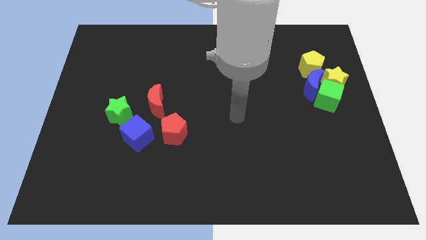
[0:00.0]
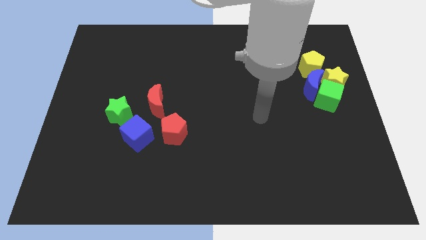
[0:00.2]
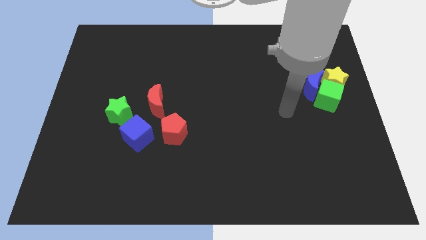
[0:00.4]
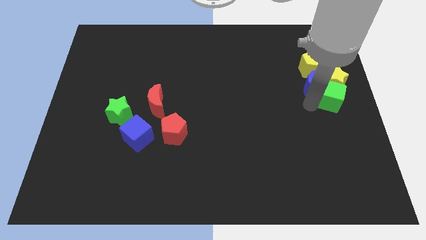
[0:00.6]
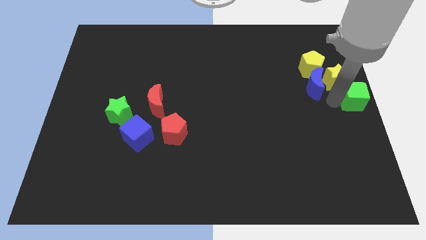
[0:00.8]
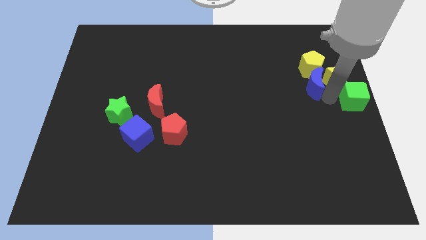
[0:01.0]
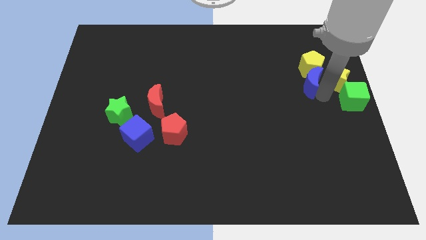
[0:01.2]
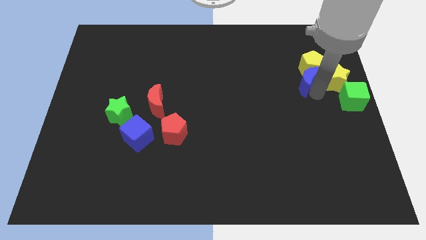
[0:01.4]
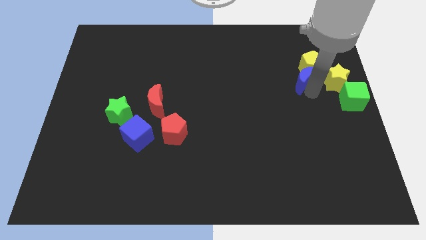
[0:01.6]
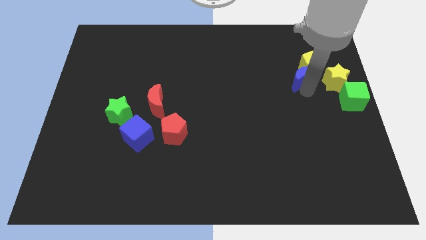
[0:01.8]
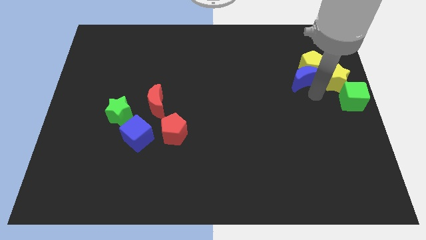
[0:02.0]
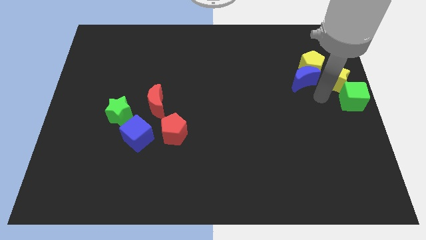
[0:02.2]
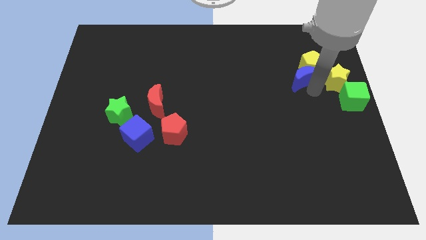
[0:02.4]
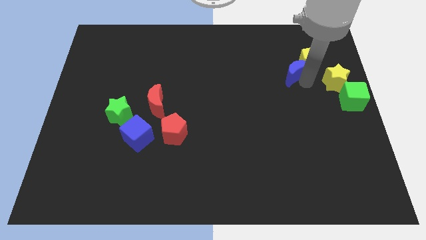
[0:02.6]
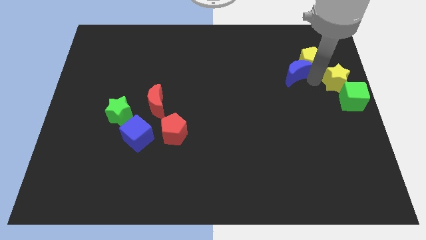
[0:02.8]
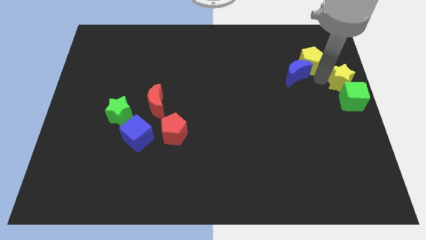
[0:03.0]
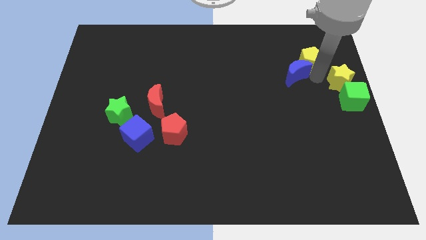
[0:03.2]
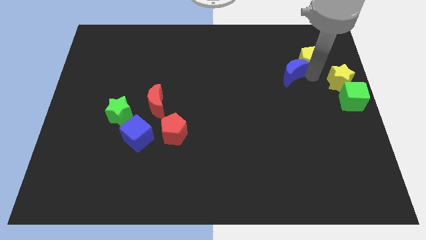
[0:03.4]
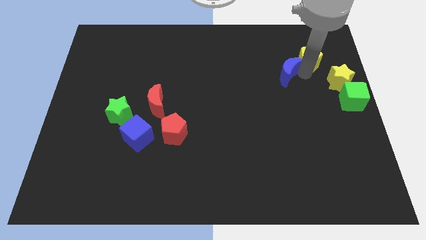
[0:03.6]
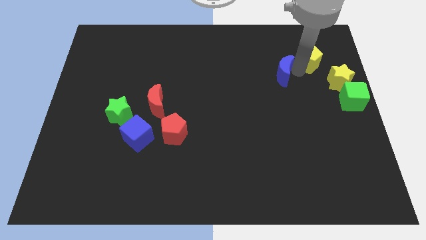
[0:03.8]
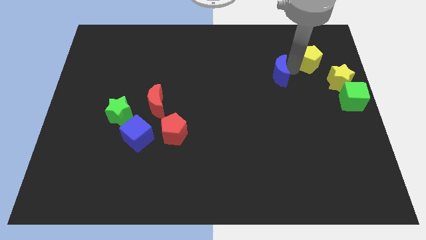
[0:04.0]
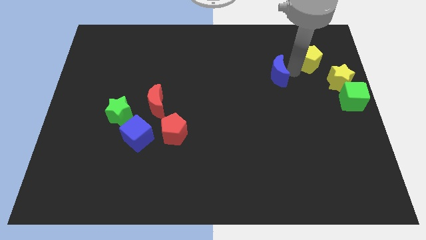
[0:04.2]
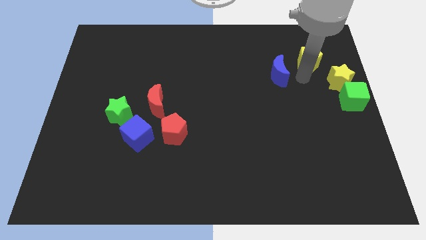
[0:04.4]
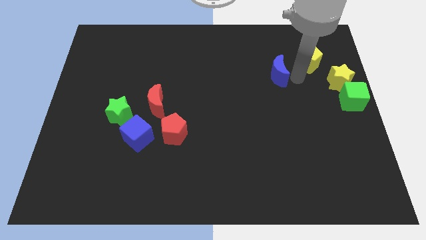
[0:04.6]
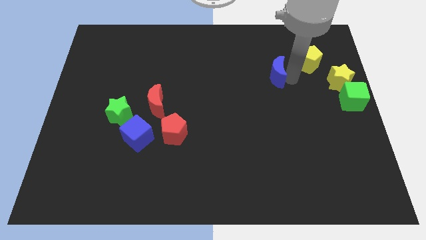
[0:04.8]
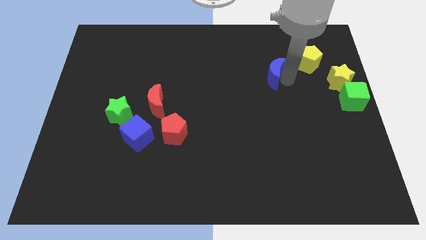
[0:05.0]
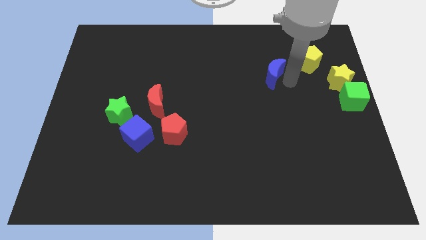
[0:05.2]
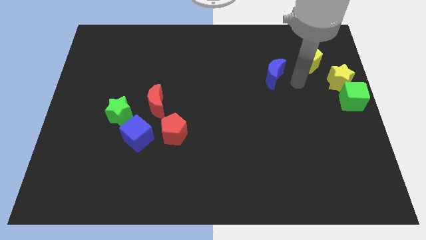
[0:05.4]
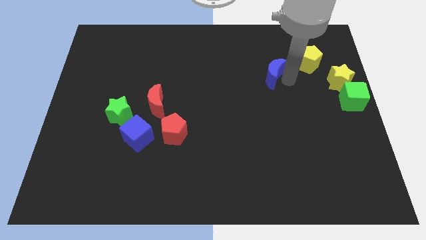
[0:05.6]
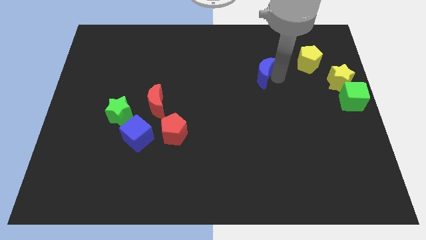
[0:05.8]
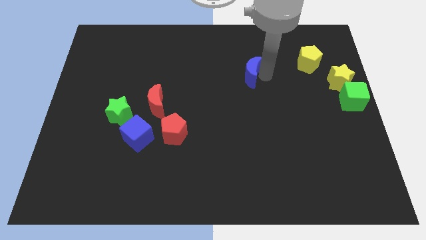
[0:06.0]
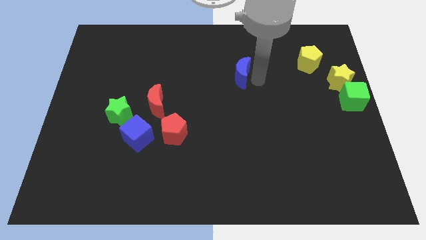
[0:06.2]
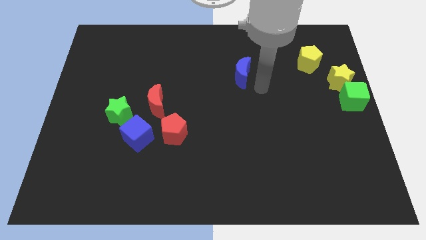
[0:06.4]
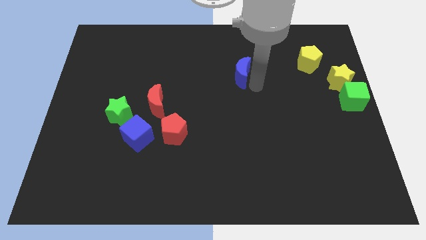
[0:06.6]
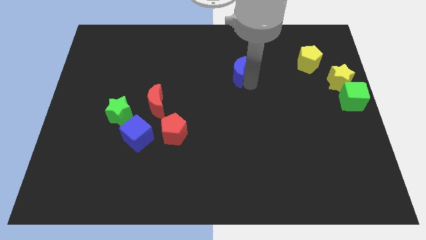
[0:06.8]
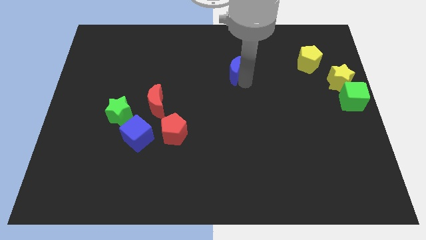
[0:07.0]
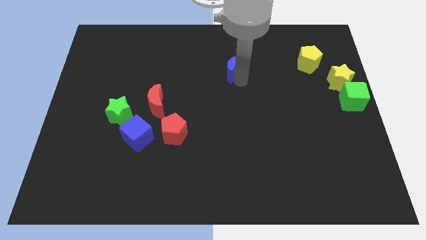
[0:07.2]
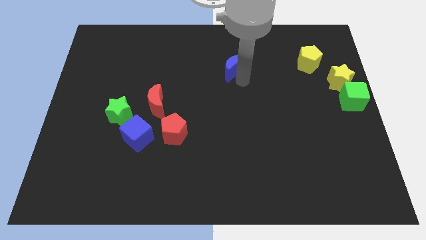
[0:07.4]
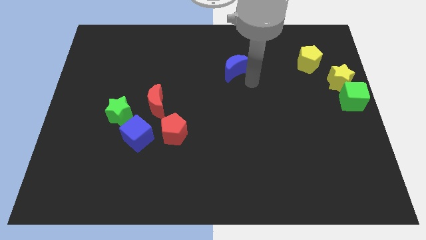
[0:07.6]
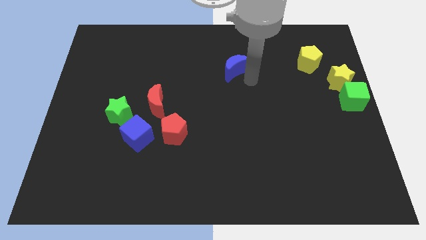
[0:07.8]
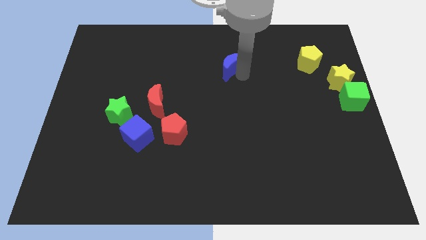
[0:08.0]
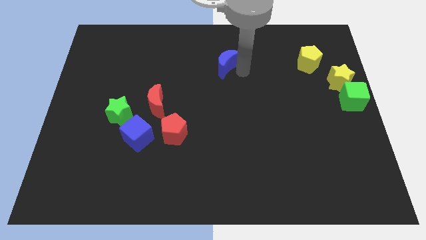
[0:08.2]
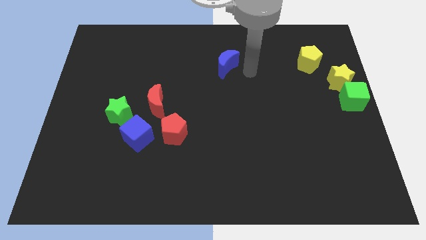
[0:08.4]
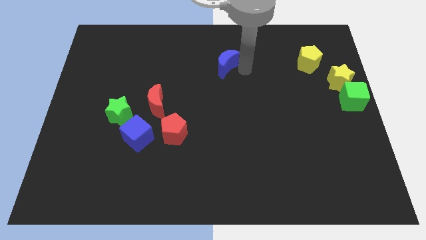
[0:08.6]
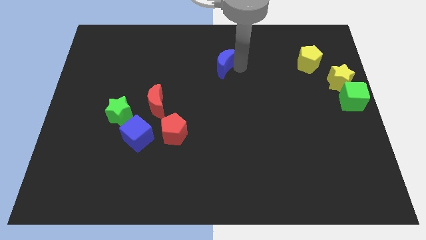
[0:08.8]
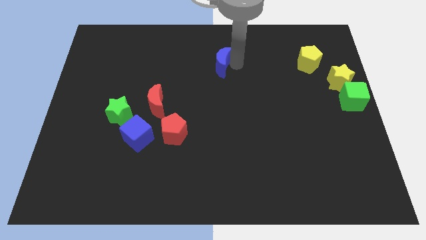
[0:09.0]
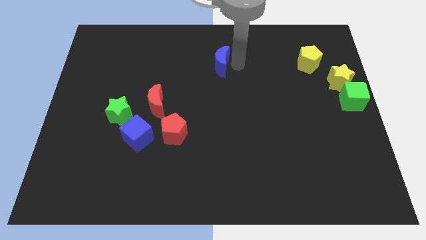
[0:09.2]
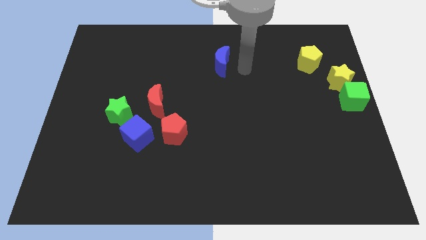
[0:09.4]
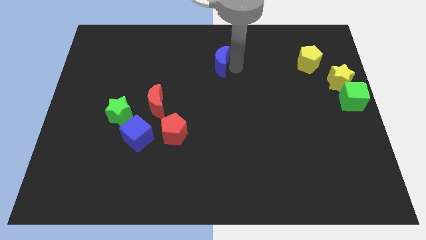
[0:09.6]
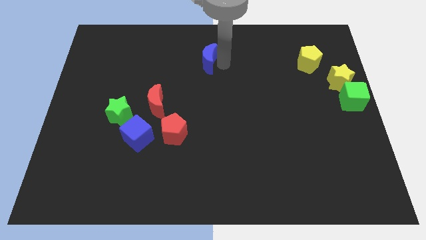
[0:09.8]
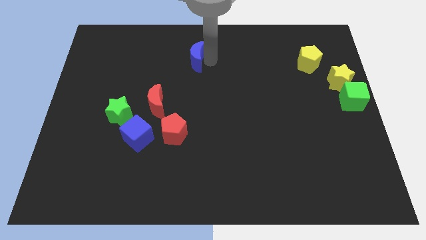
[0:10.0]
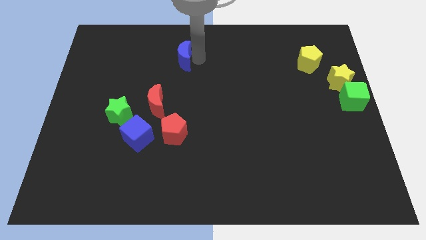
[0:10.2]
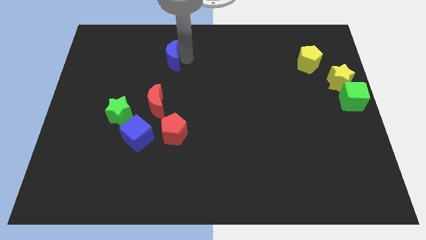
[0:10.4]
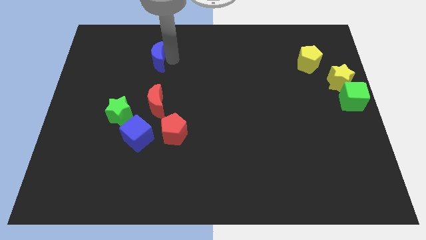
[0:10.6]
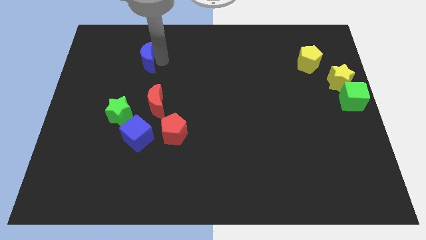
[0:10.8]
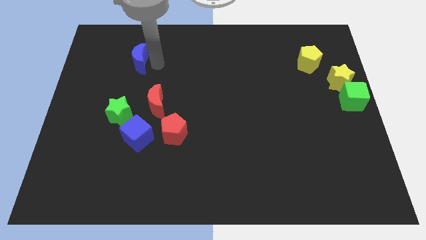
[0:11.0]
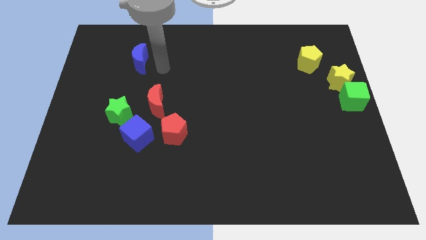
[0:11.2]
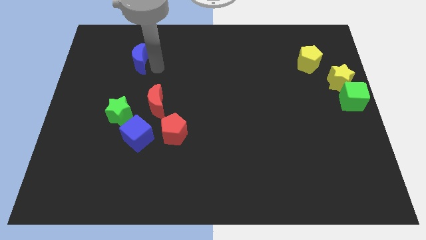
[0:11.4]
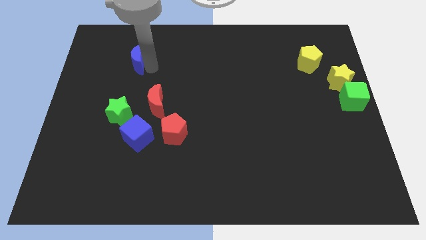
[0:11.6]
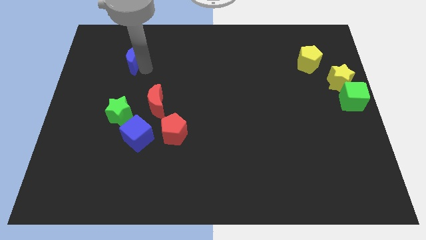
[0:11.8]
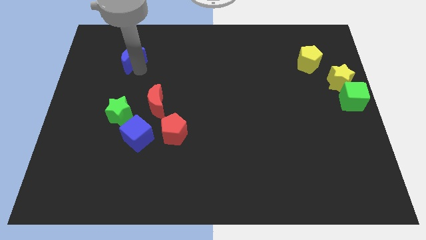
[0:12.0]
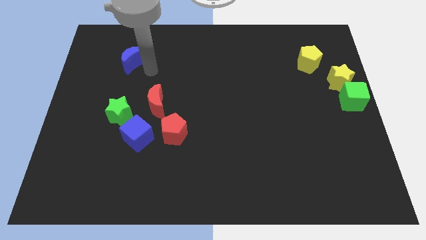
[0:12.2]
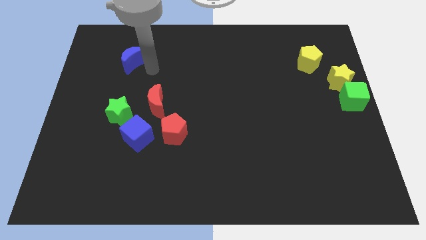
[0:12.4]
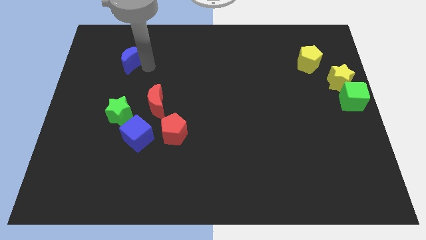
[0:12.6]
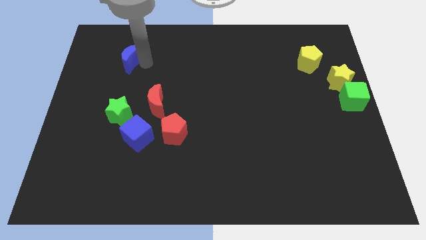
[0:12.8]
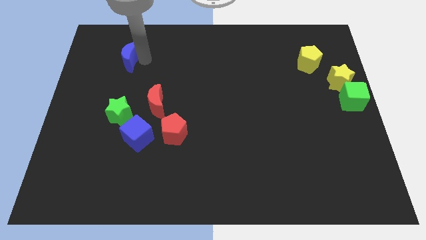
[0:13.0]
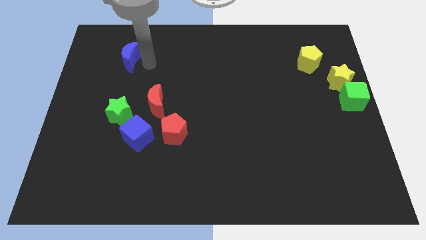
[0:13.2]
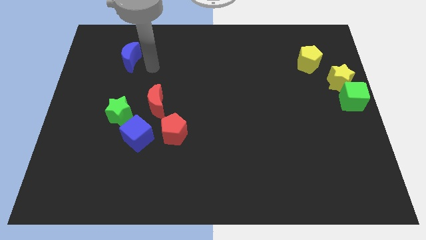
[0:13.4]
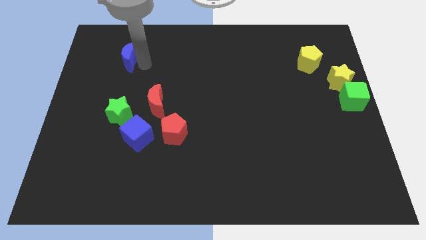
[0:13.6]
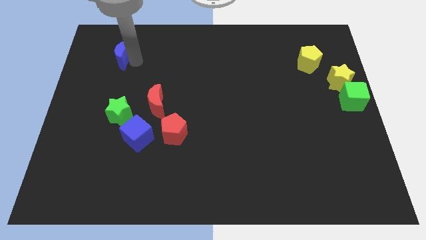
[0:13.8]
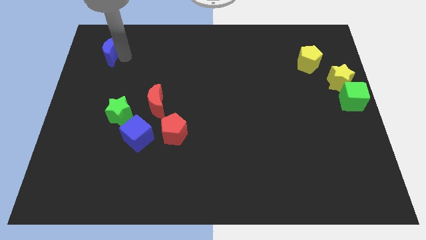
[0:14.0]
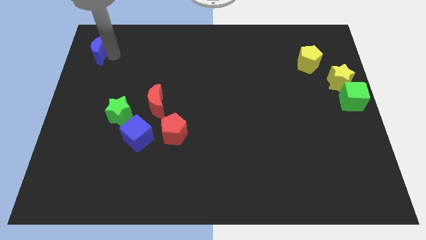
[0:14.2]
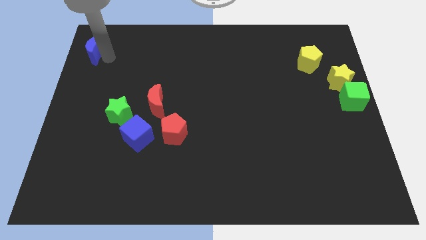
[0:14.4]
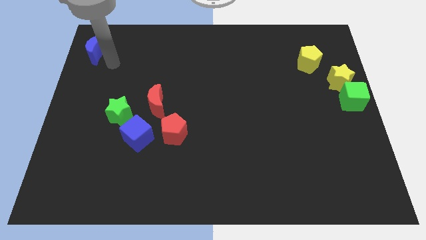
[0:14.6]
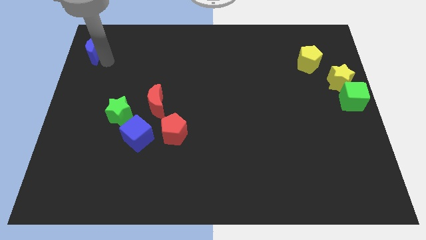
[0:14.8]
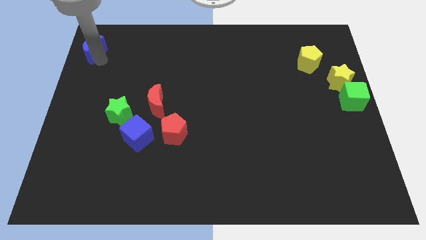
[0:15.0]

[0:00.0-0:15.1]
move the blue moon to the top left corner
